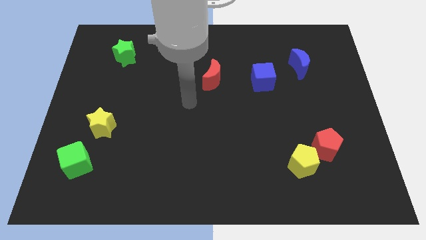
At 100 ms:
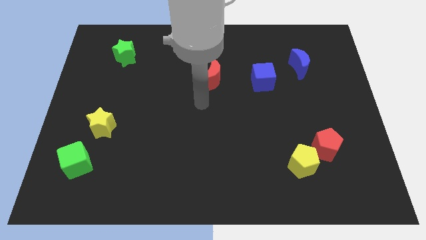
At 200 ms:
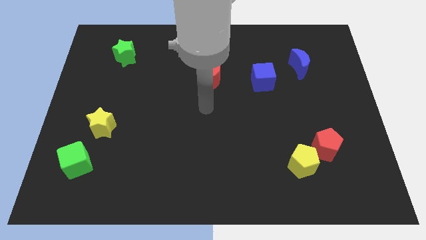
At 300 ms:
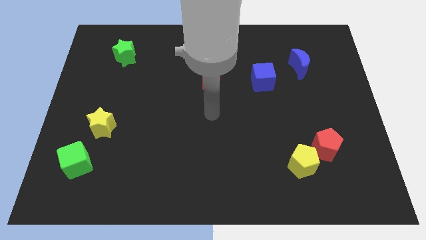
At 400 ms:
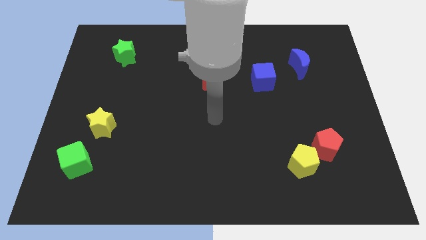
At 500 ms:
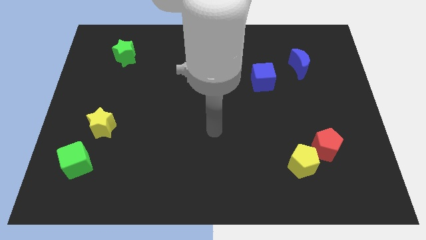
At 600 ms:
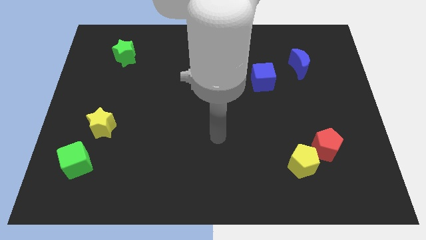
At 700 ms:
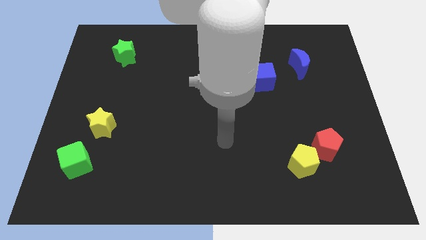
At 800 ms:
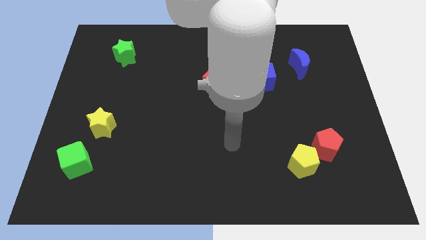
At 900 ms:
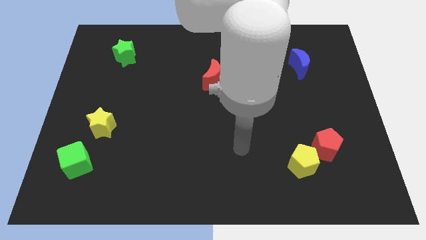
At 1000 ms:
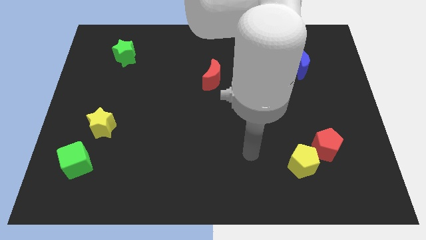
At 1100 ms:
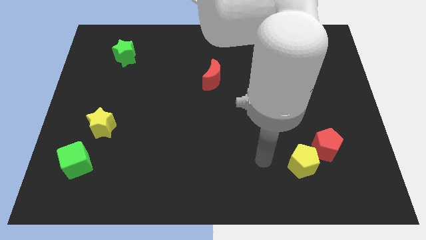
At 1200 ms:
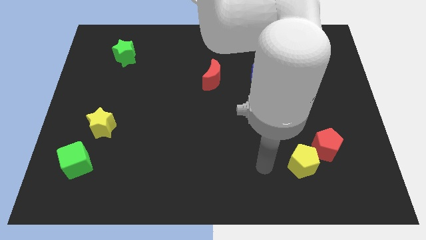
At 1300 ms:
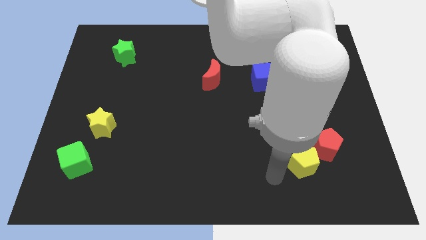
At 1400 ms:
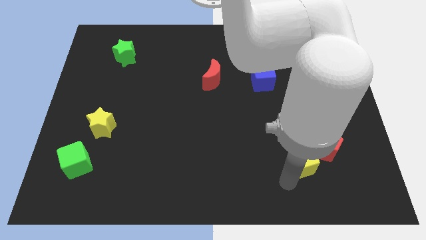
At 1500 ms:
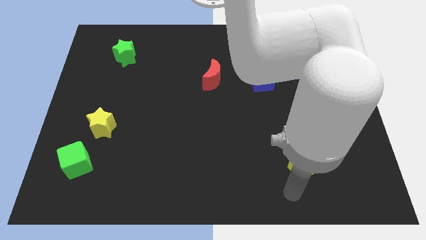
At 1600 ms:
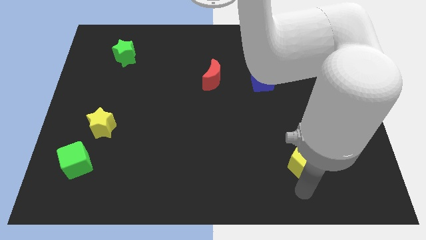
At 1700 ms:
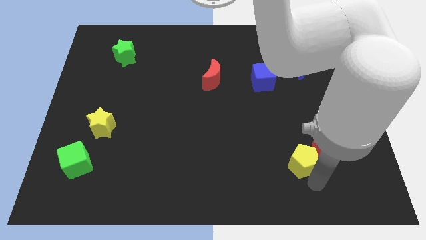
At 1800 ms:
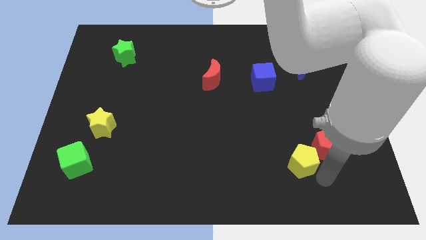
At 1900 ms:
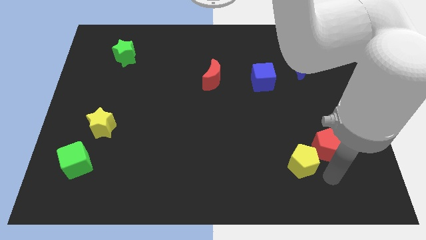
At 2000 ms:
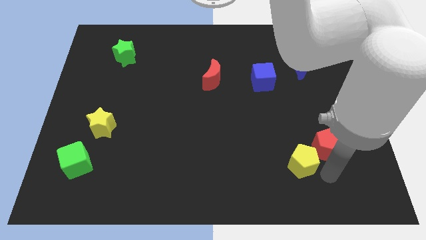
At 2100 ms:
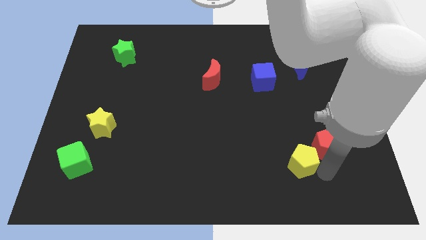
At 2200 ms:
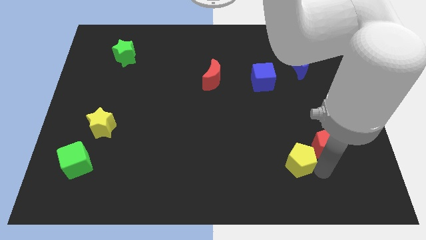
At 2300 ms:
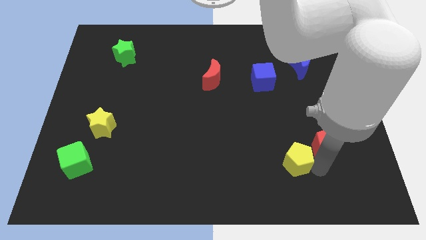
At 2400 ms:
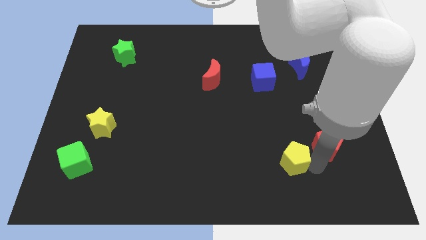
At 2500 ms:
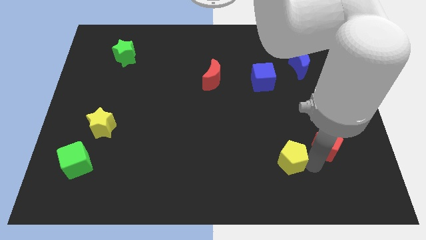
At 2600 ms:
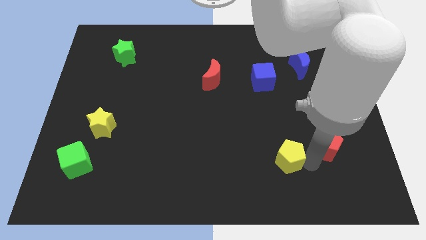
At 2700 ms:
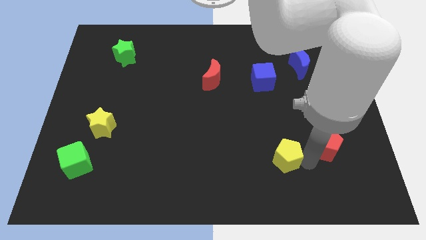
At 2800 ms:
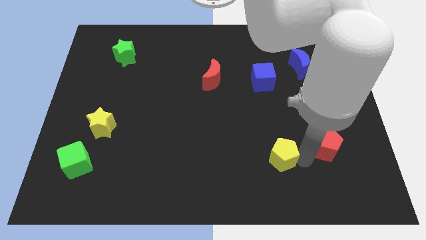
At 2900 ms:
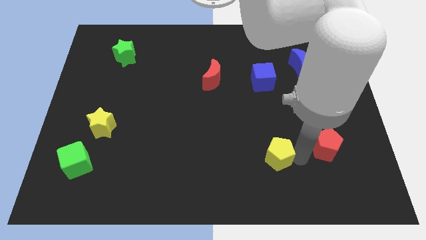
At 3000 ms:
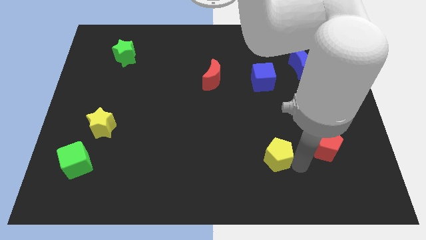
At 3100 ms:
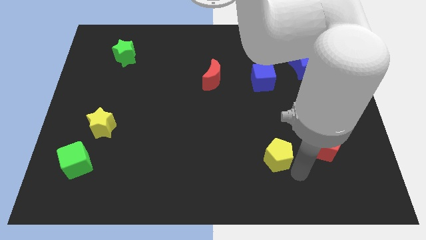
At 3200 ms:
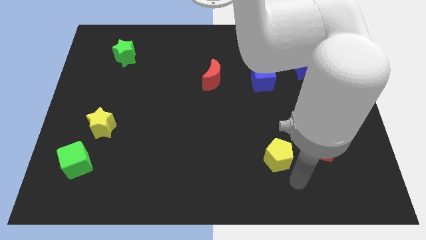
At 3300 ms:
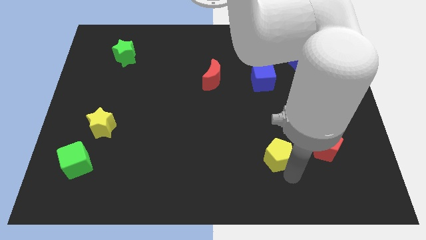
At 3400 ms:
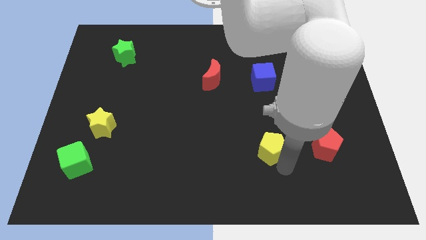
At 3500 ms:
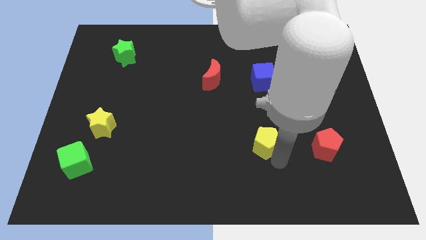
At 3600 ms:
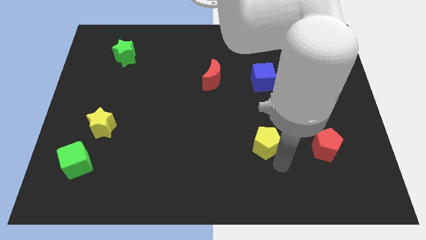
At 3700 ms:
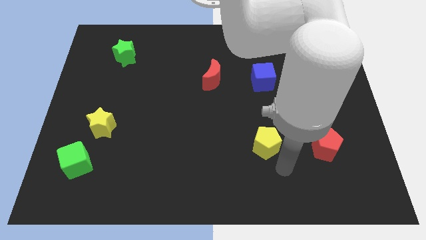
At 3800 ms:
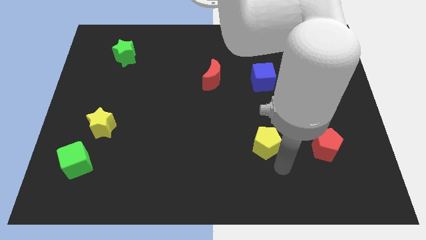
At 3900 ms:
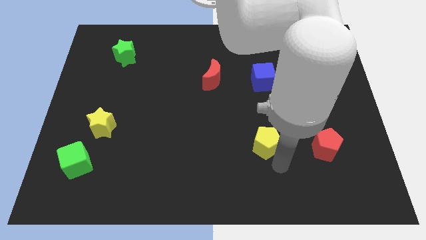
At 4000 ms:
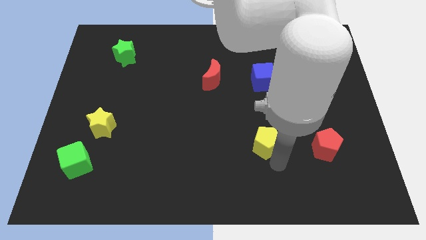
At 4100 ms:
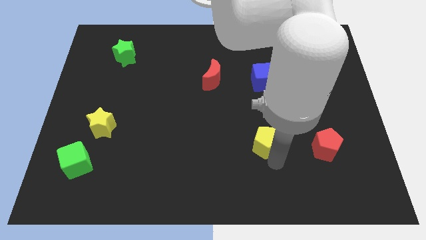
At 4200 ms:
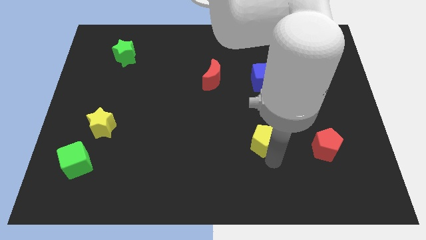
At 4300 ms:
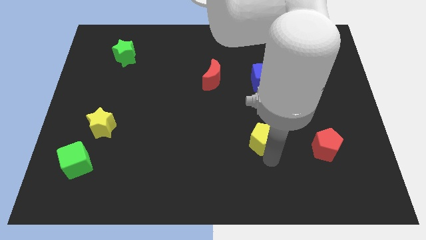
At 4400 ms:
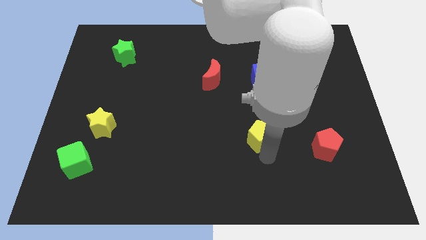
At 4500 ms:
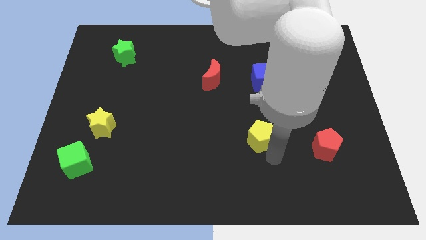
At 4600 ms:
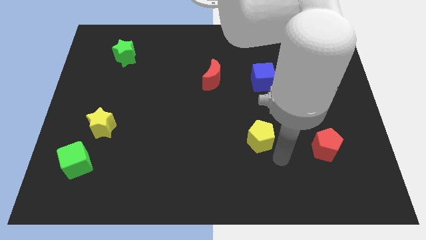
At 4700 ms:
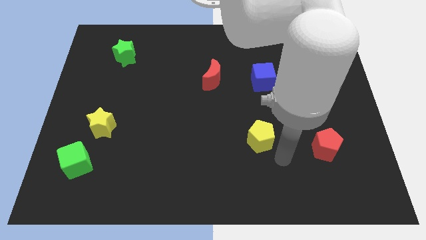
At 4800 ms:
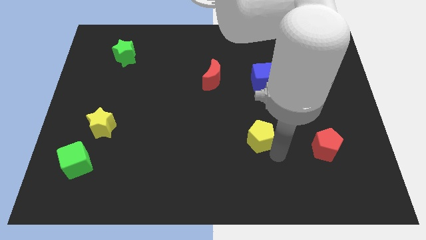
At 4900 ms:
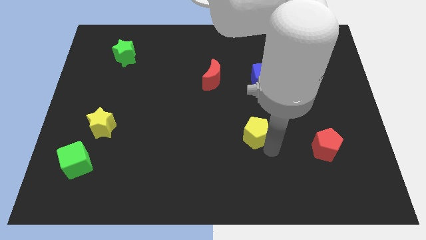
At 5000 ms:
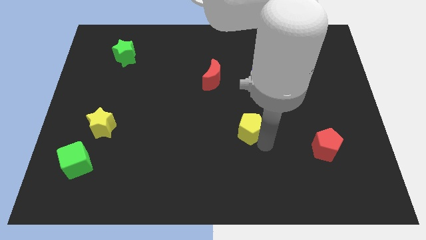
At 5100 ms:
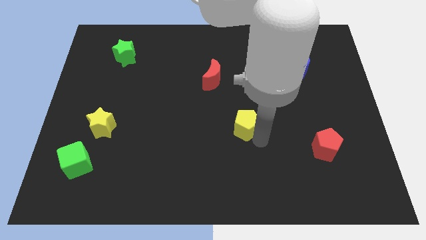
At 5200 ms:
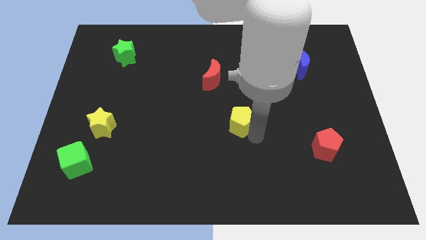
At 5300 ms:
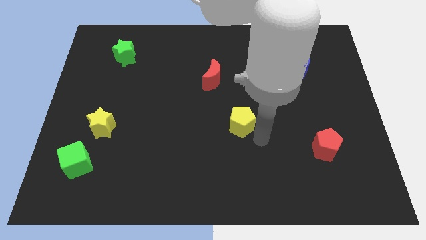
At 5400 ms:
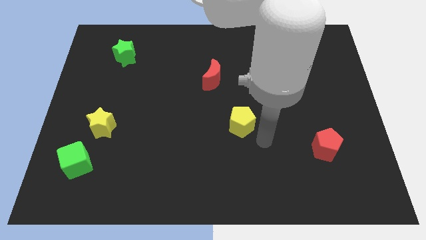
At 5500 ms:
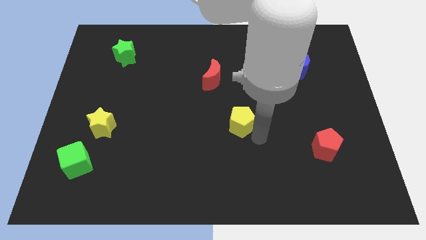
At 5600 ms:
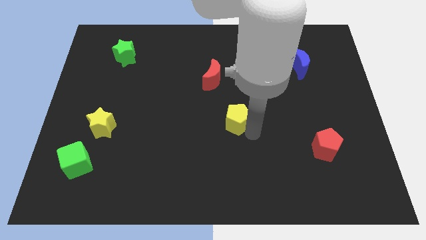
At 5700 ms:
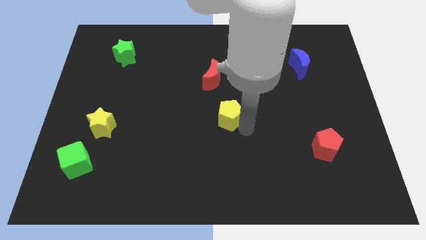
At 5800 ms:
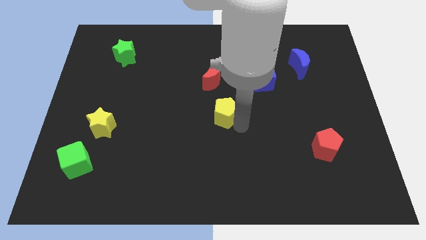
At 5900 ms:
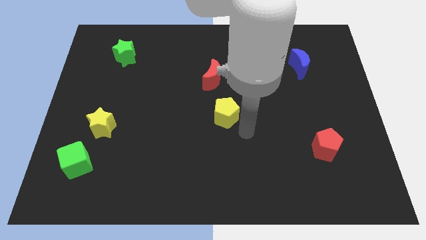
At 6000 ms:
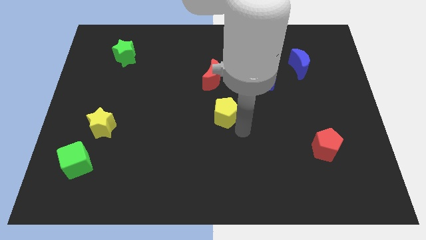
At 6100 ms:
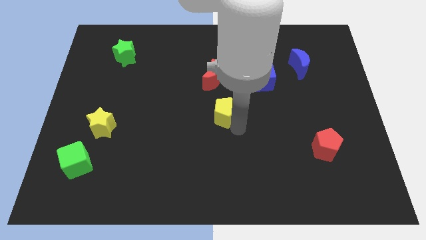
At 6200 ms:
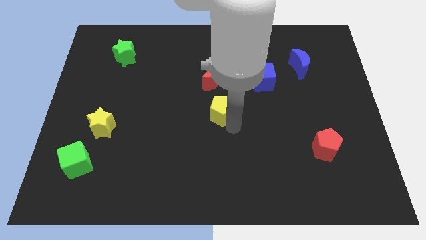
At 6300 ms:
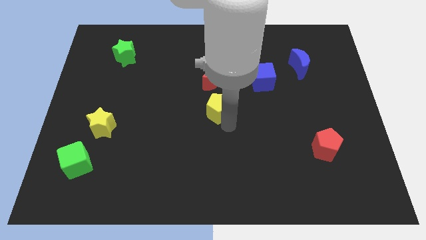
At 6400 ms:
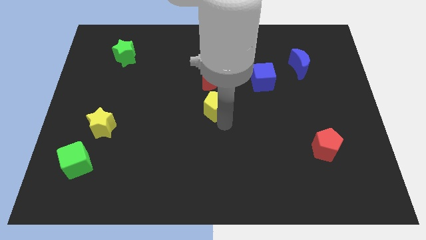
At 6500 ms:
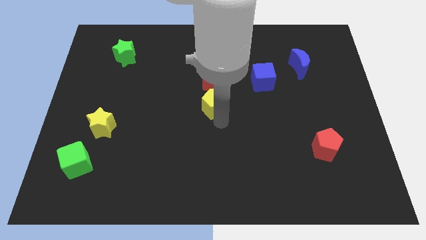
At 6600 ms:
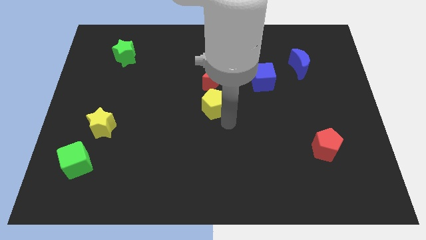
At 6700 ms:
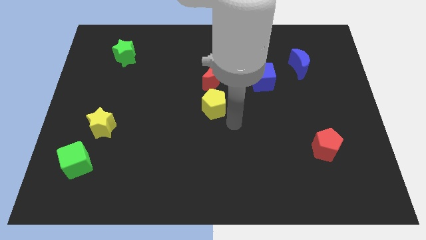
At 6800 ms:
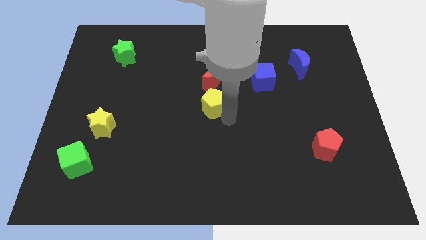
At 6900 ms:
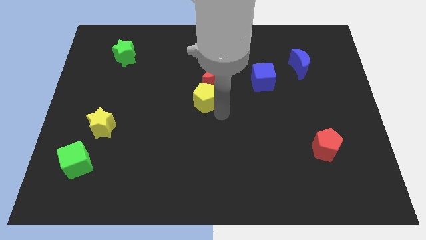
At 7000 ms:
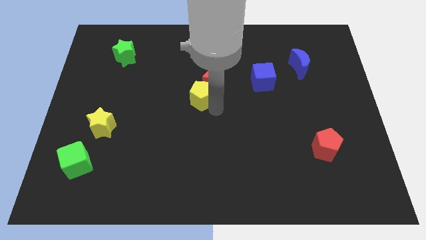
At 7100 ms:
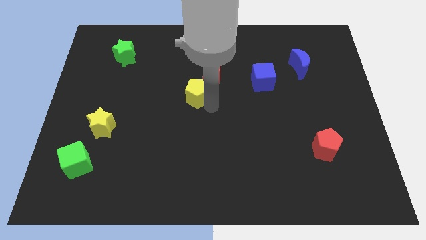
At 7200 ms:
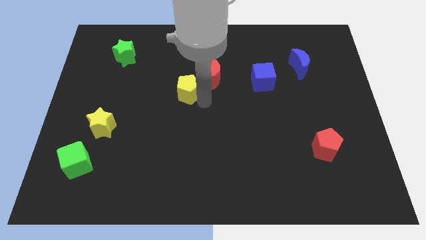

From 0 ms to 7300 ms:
slide the yellow pentagon just left of the red moon
